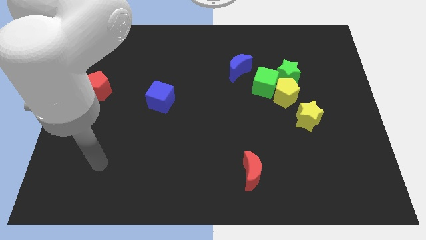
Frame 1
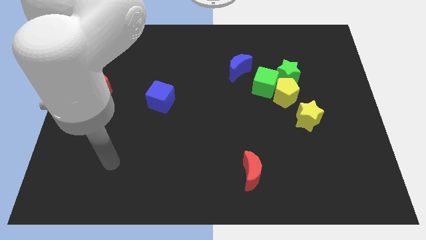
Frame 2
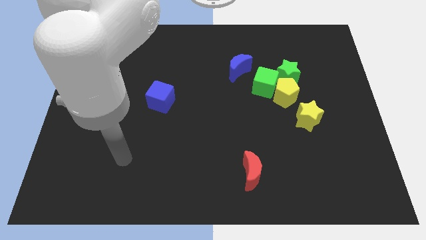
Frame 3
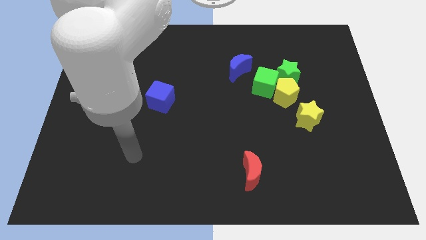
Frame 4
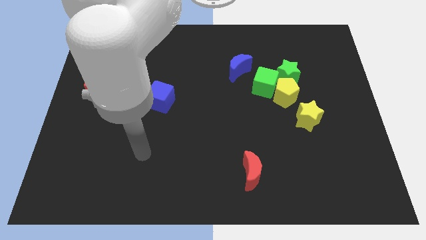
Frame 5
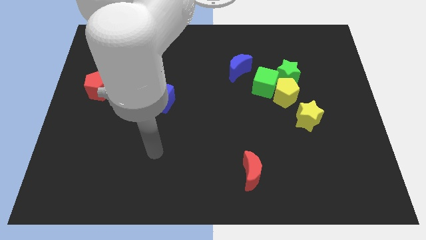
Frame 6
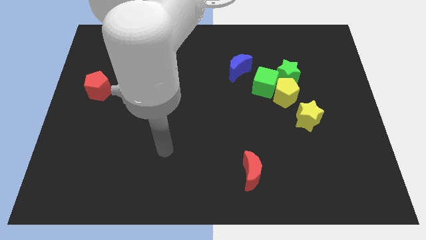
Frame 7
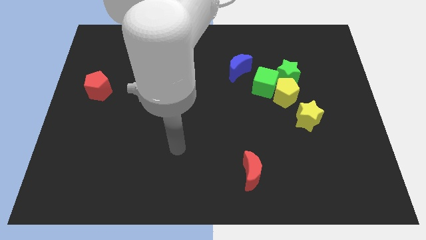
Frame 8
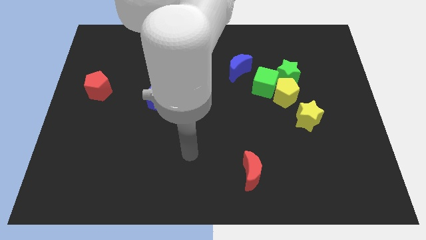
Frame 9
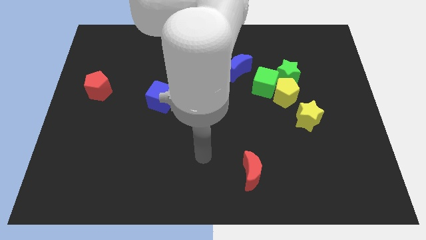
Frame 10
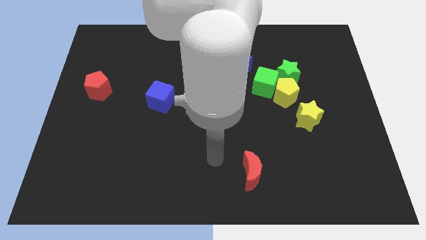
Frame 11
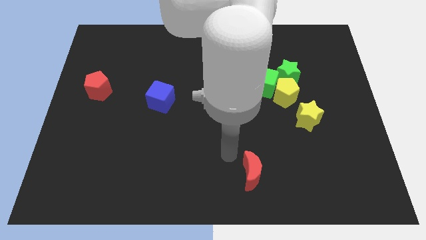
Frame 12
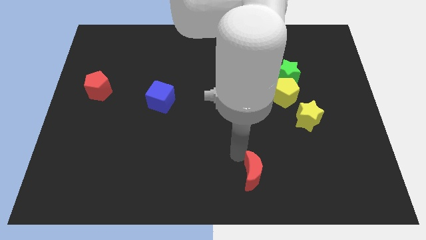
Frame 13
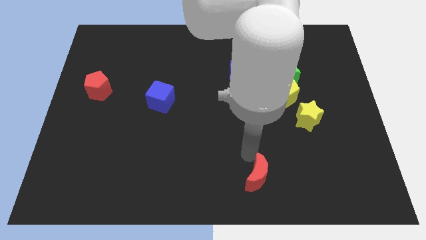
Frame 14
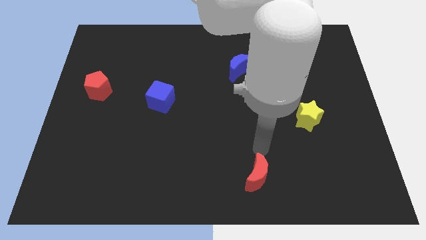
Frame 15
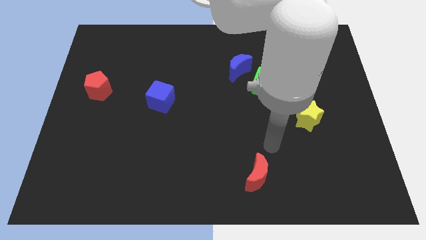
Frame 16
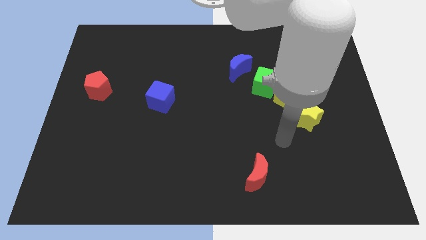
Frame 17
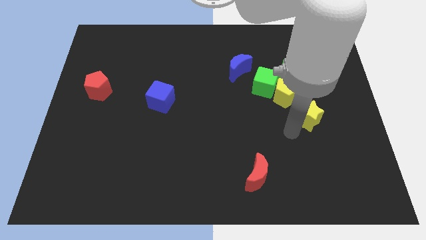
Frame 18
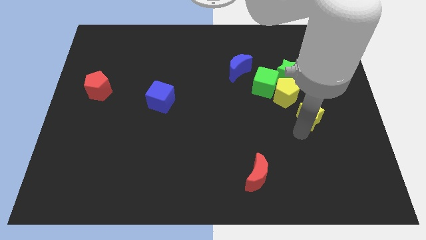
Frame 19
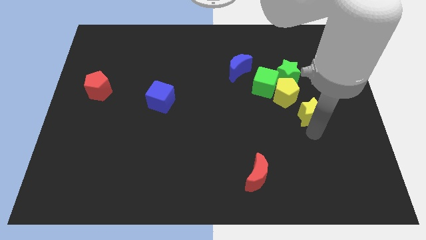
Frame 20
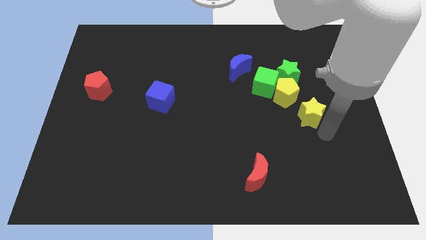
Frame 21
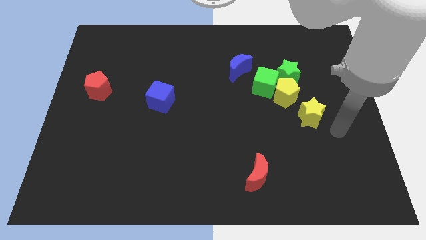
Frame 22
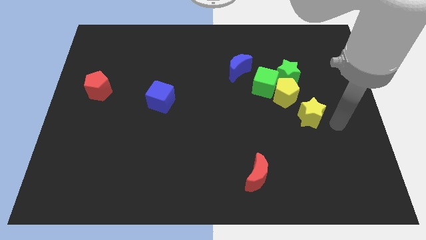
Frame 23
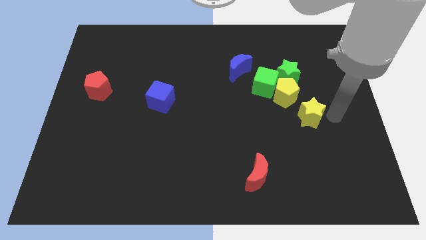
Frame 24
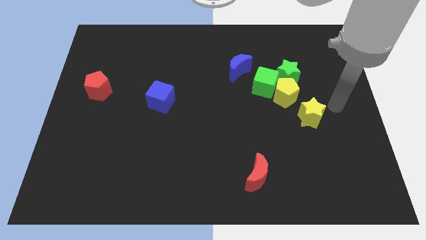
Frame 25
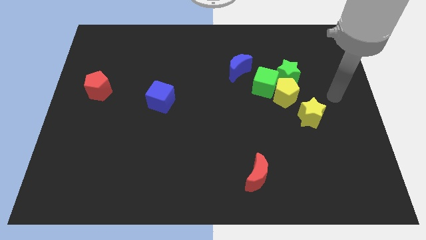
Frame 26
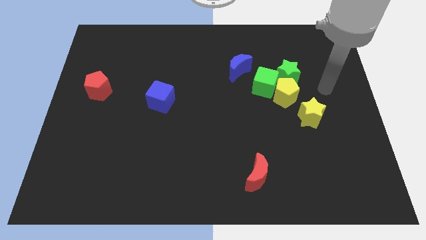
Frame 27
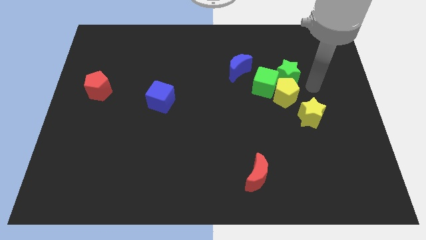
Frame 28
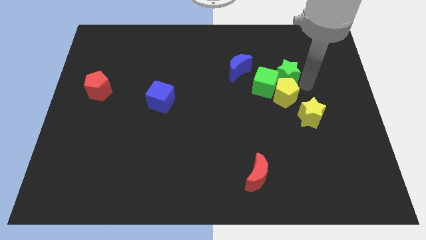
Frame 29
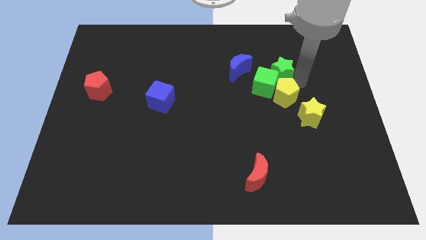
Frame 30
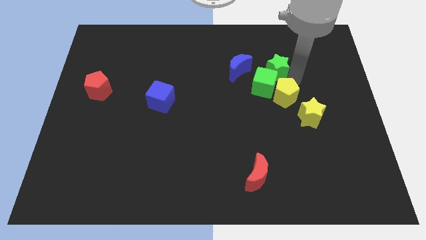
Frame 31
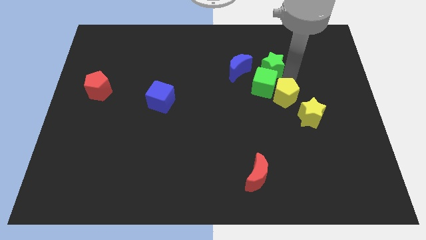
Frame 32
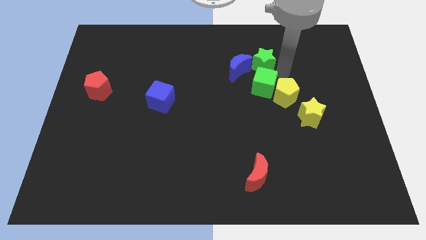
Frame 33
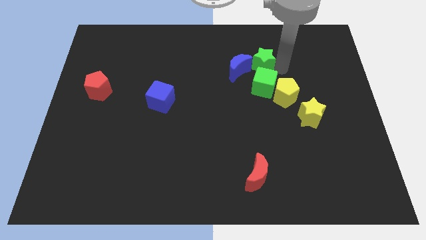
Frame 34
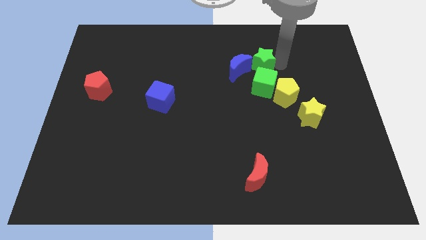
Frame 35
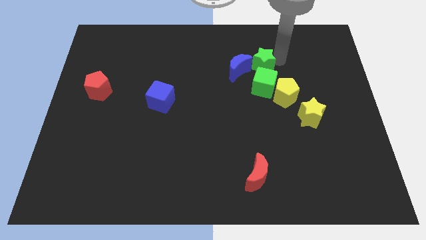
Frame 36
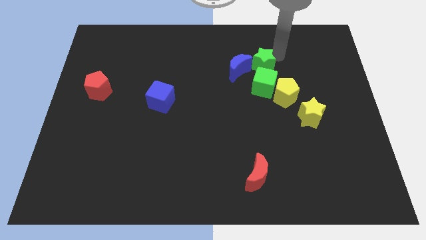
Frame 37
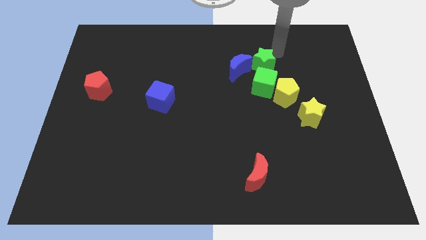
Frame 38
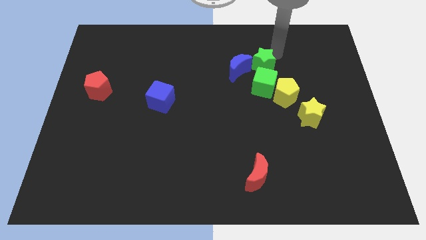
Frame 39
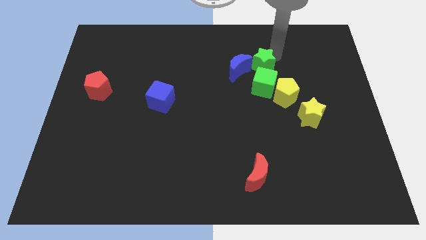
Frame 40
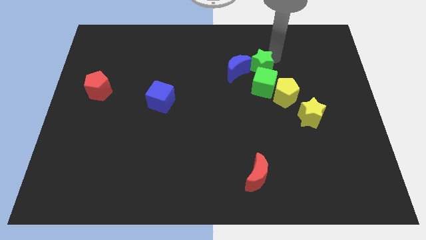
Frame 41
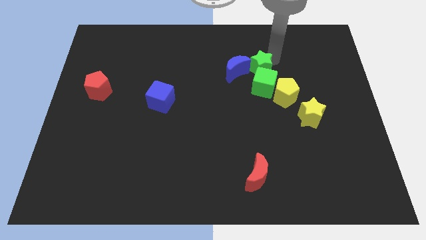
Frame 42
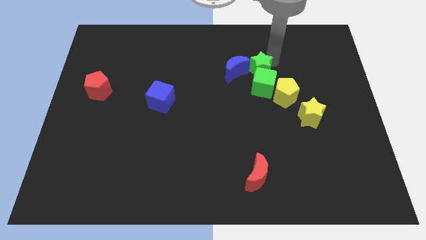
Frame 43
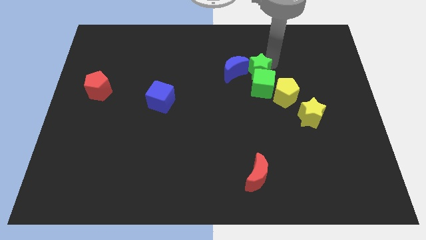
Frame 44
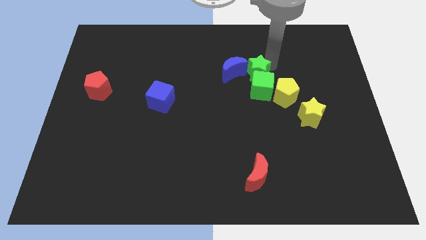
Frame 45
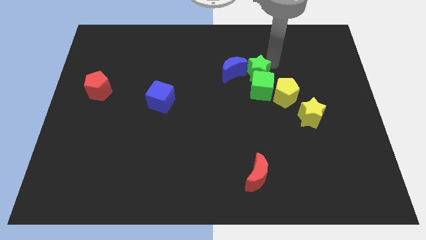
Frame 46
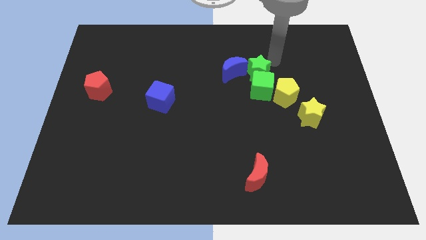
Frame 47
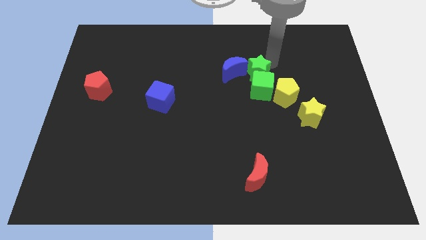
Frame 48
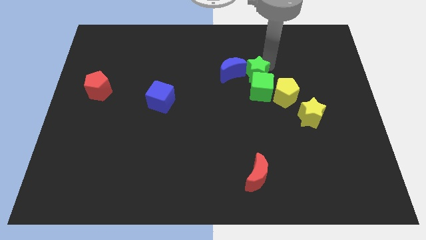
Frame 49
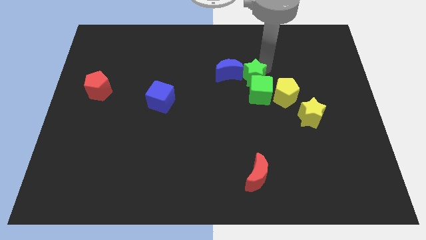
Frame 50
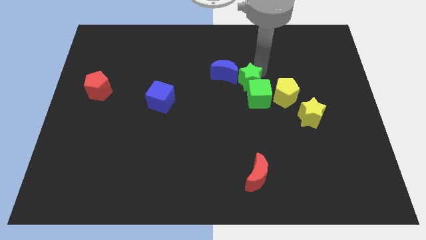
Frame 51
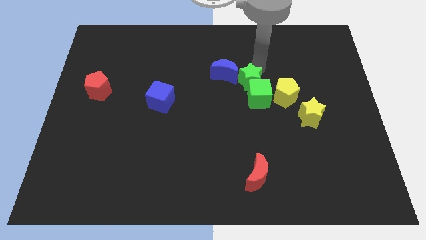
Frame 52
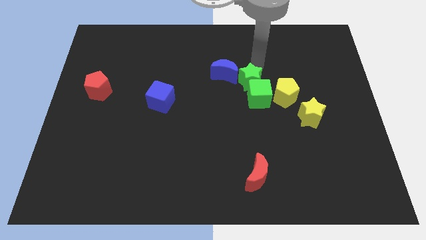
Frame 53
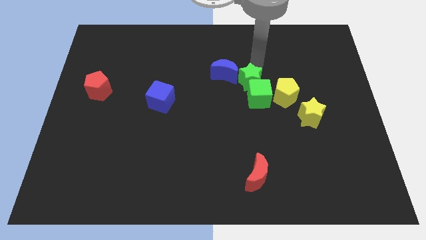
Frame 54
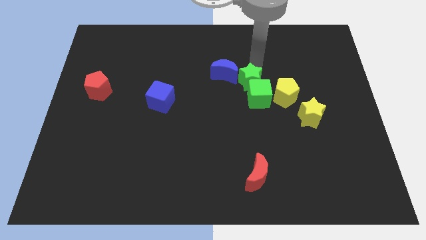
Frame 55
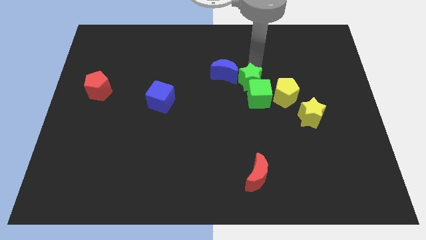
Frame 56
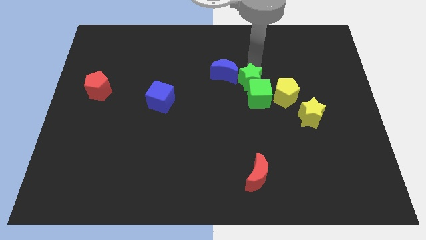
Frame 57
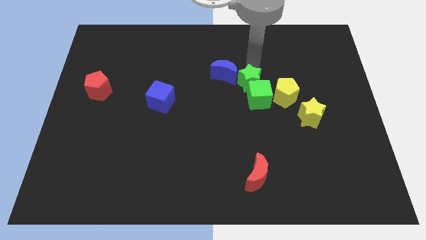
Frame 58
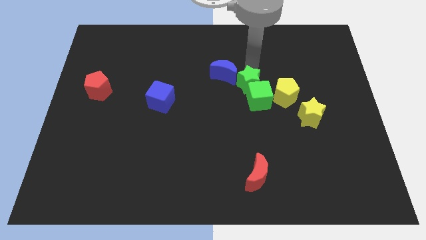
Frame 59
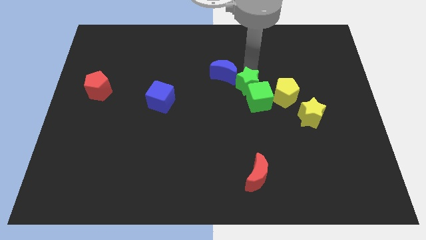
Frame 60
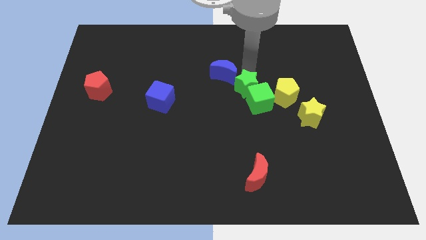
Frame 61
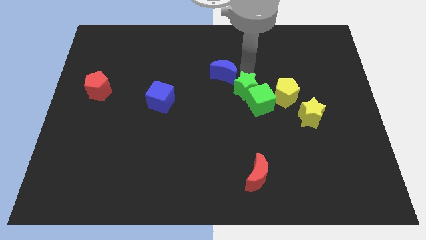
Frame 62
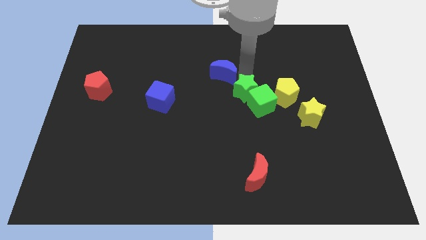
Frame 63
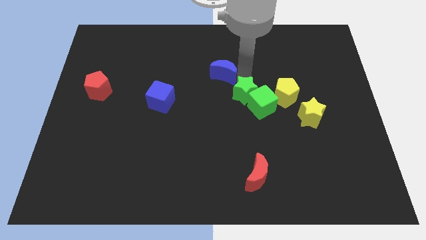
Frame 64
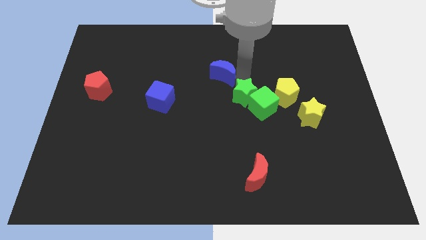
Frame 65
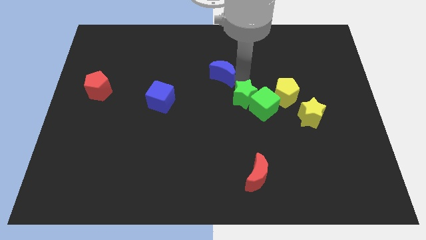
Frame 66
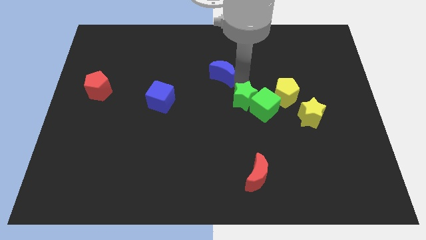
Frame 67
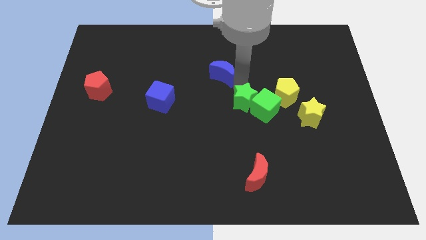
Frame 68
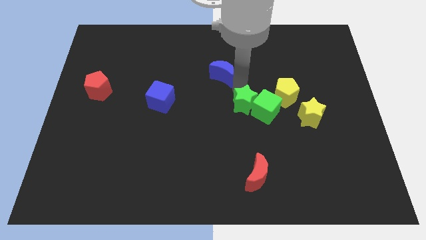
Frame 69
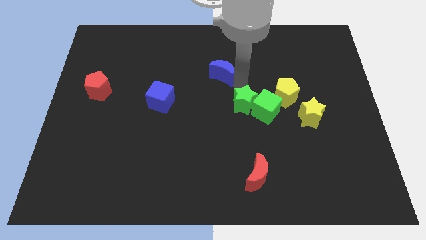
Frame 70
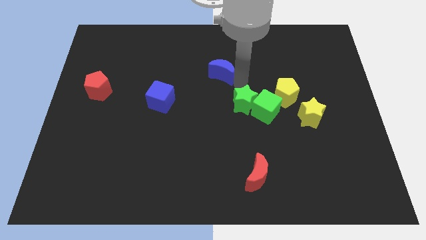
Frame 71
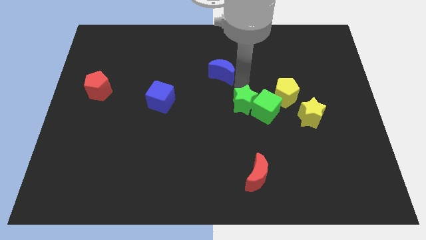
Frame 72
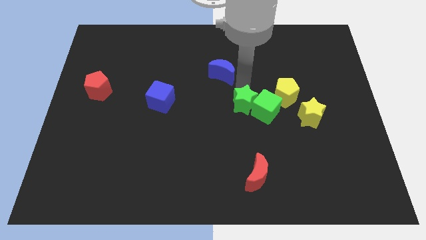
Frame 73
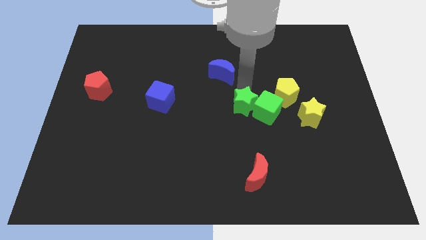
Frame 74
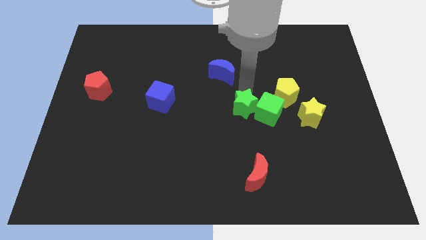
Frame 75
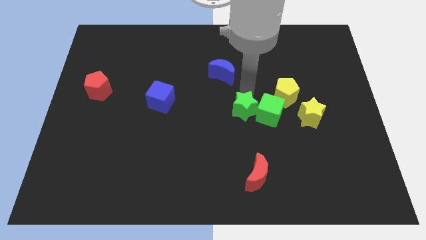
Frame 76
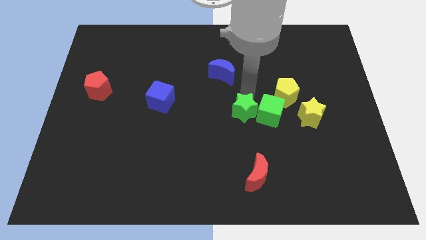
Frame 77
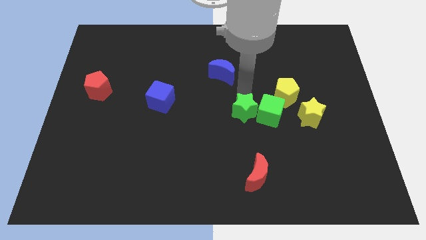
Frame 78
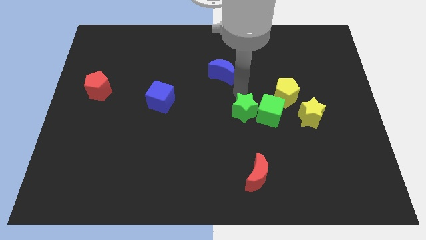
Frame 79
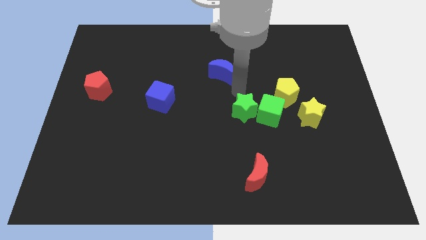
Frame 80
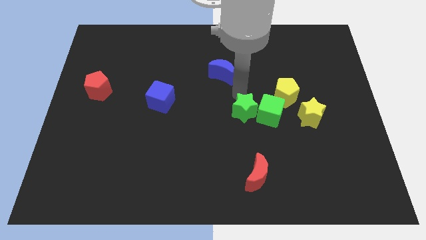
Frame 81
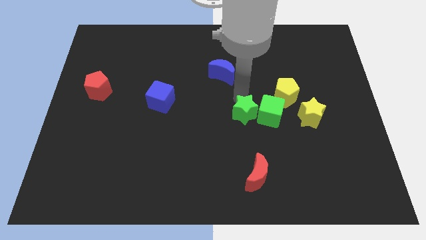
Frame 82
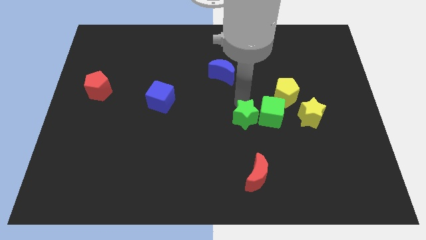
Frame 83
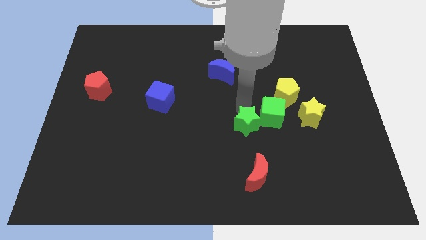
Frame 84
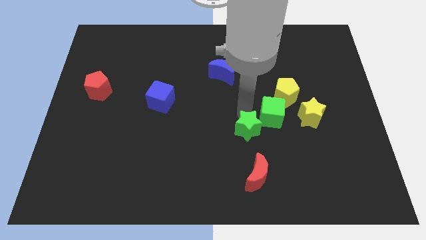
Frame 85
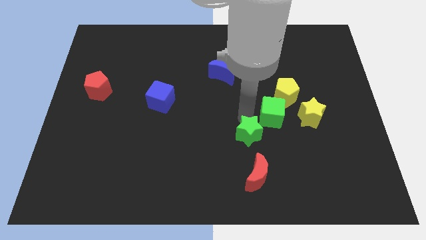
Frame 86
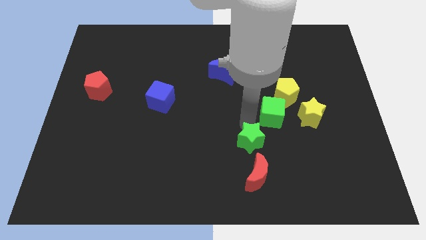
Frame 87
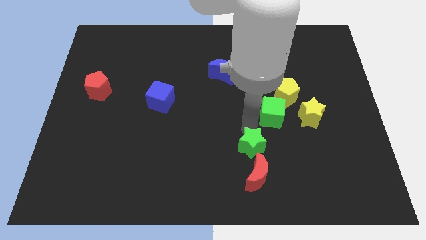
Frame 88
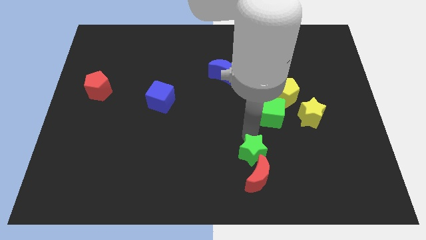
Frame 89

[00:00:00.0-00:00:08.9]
move the green star next to the red moon
